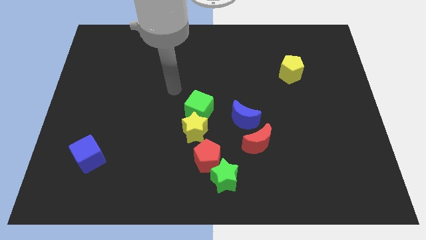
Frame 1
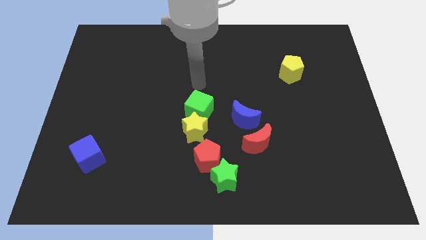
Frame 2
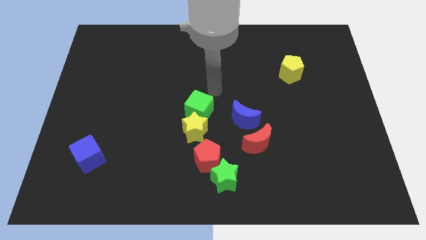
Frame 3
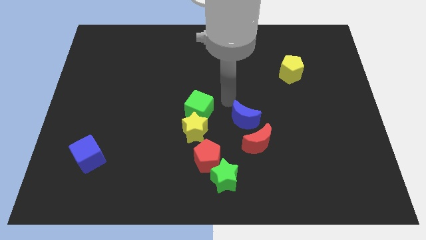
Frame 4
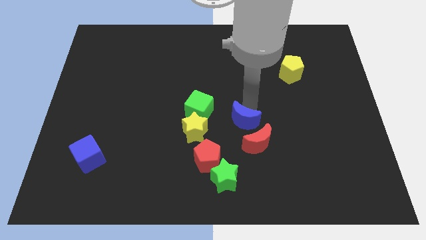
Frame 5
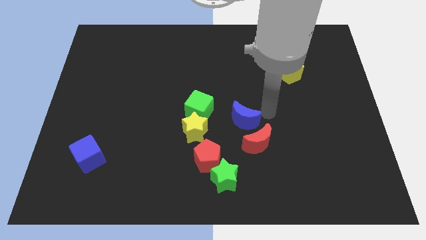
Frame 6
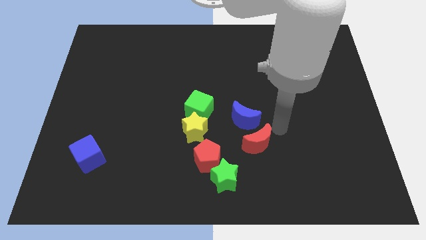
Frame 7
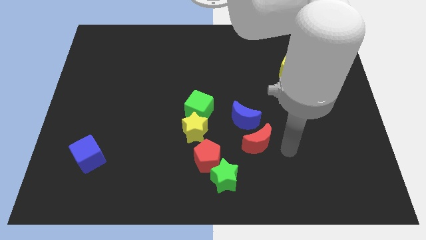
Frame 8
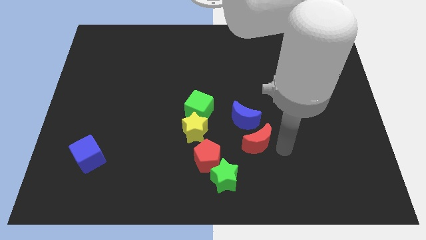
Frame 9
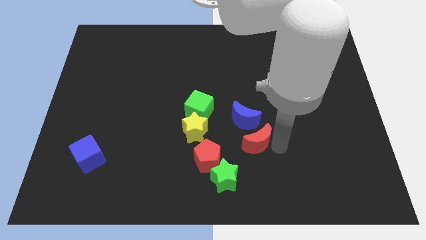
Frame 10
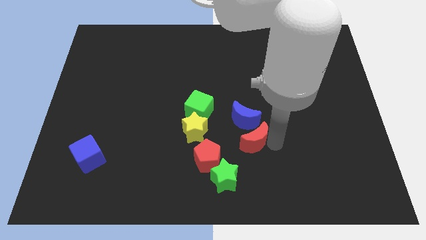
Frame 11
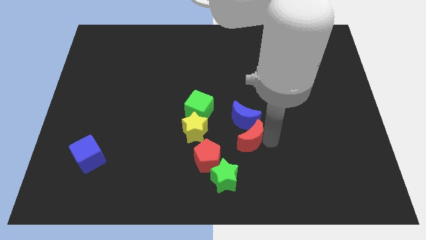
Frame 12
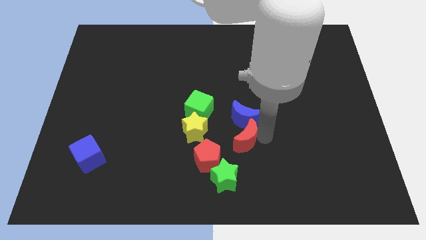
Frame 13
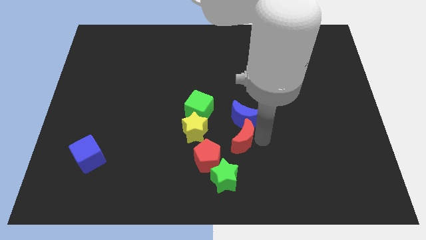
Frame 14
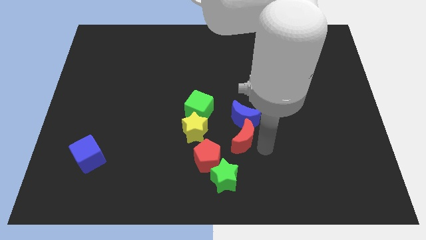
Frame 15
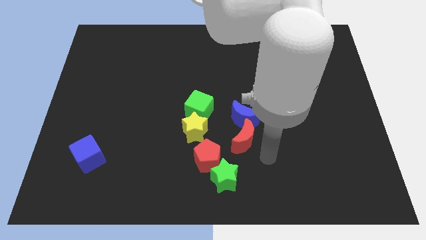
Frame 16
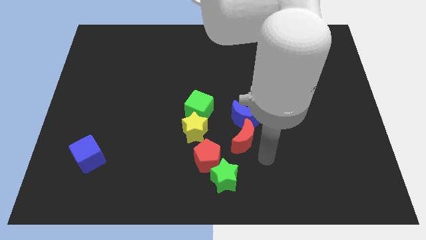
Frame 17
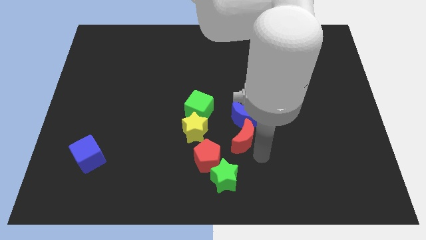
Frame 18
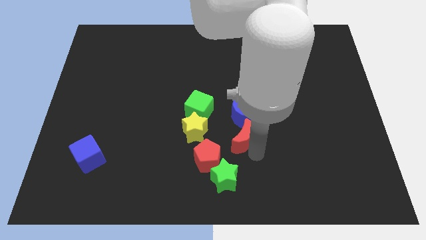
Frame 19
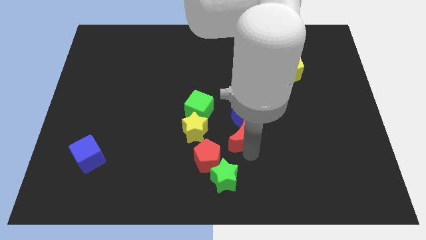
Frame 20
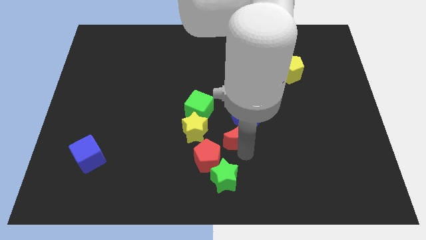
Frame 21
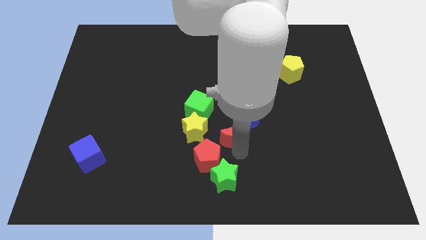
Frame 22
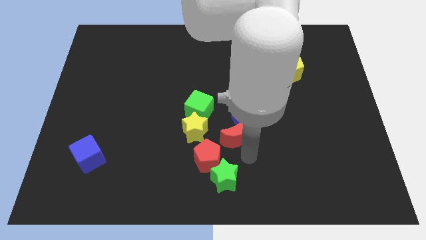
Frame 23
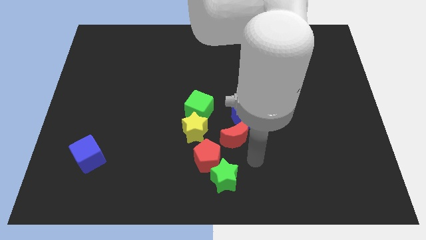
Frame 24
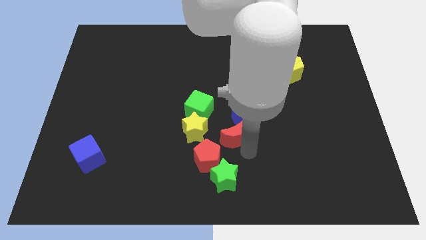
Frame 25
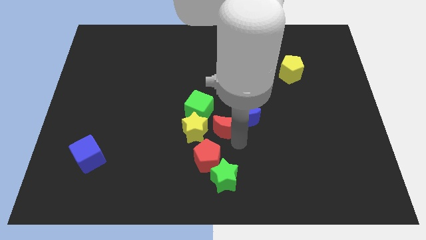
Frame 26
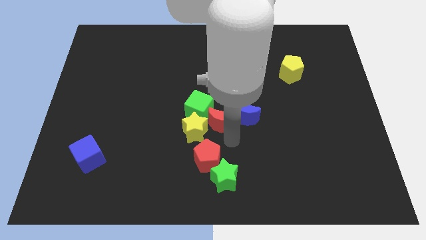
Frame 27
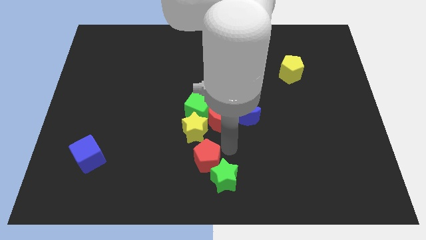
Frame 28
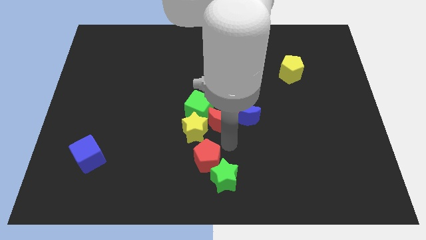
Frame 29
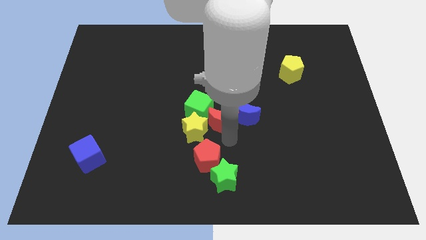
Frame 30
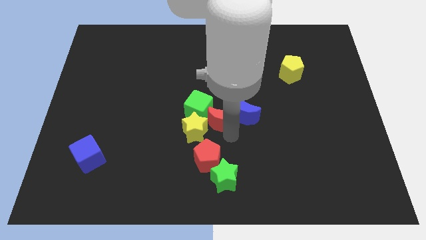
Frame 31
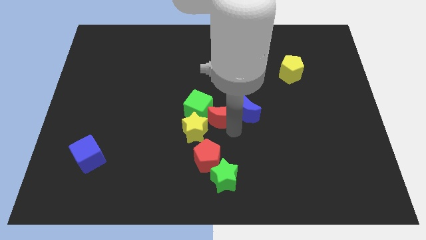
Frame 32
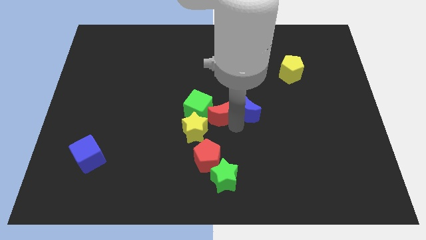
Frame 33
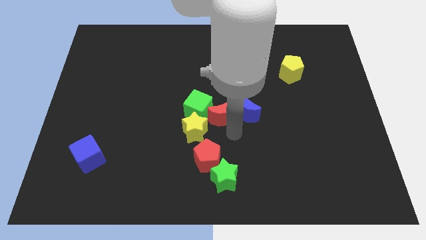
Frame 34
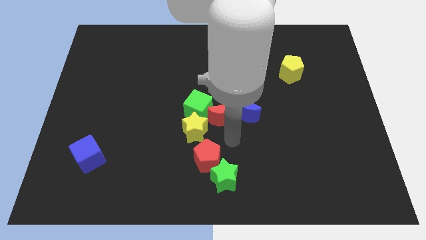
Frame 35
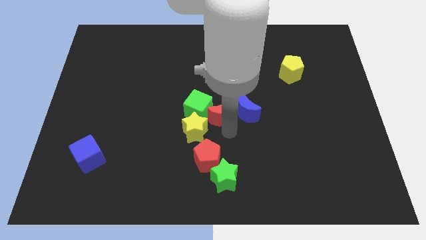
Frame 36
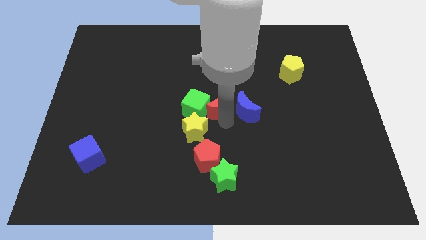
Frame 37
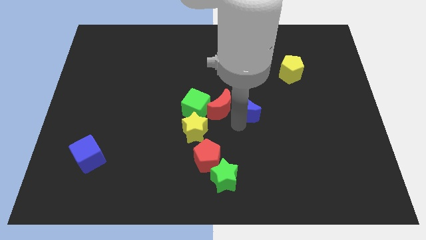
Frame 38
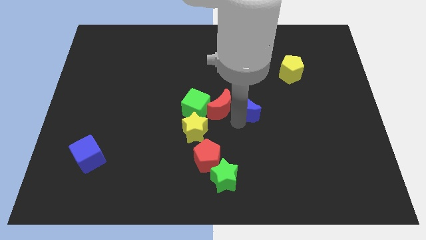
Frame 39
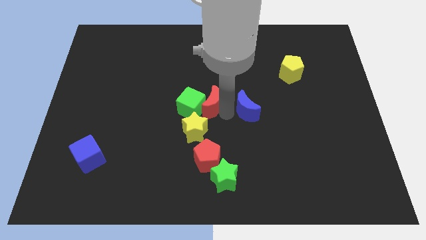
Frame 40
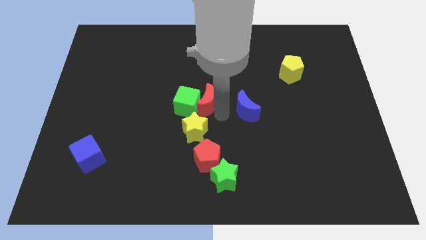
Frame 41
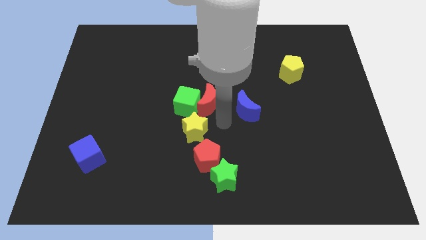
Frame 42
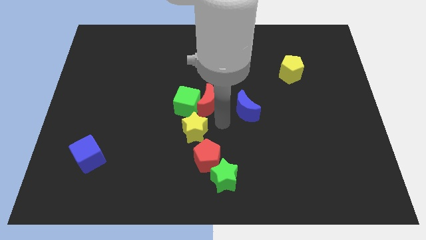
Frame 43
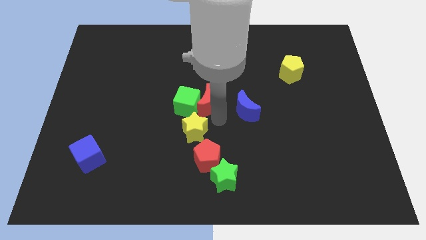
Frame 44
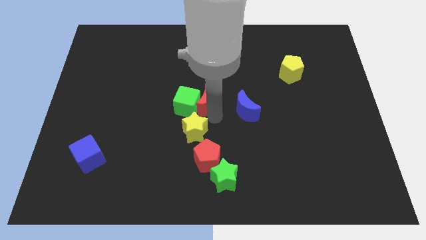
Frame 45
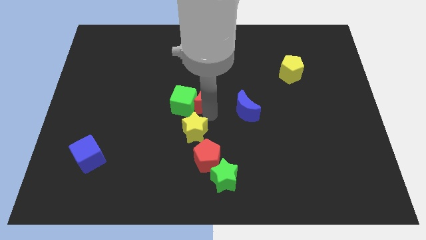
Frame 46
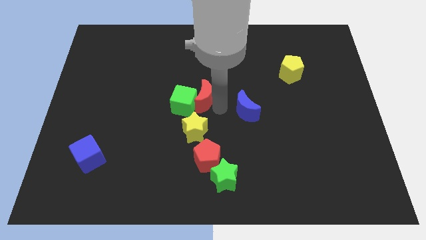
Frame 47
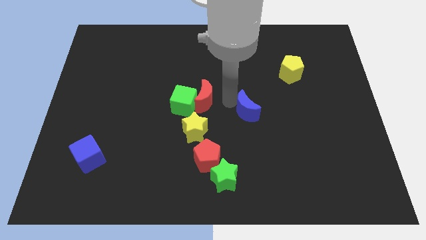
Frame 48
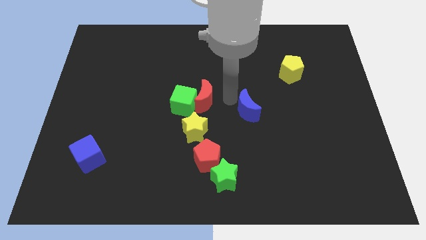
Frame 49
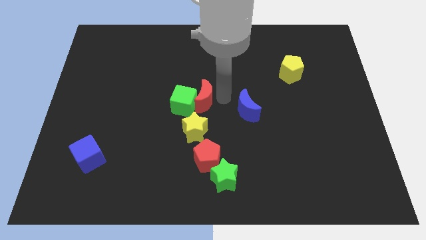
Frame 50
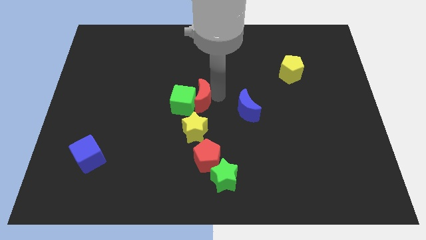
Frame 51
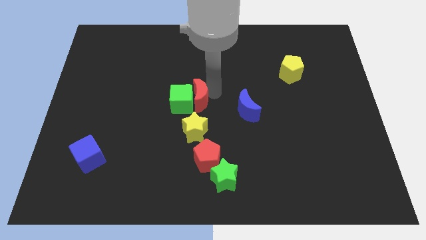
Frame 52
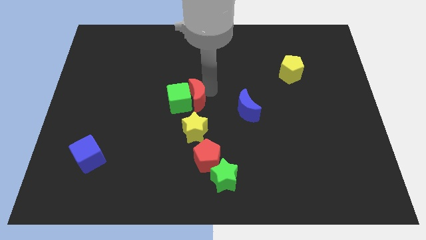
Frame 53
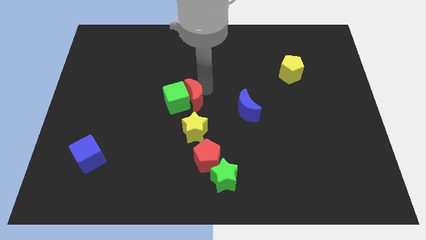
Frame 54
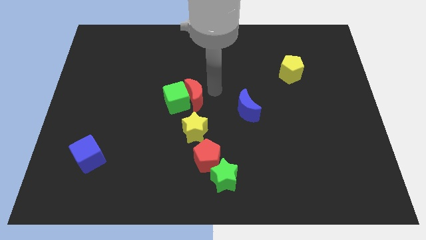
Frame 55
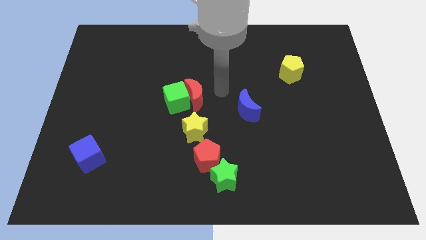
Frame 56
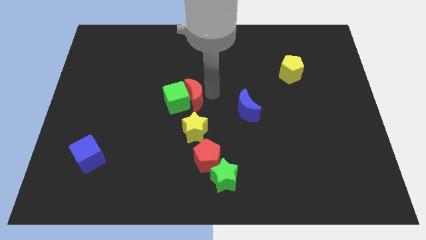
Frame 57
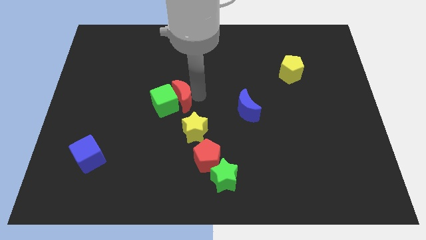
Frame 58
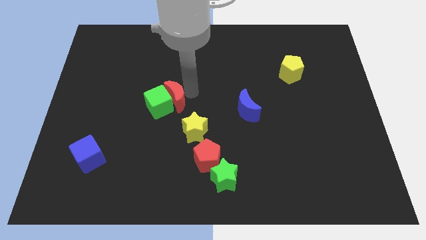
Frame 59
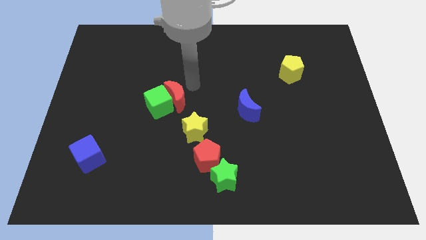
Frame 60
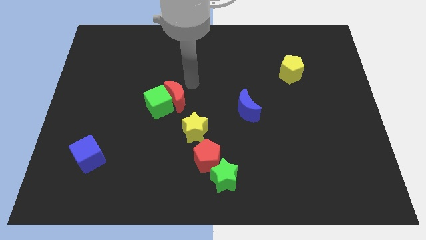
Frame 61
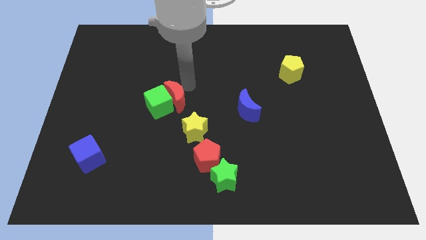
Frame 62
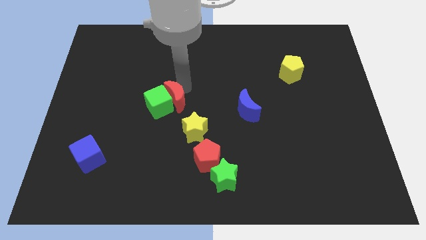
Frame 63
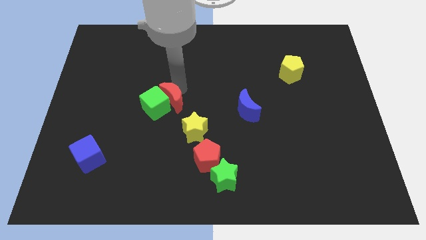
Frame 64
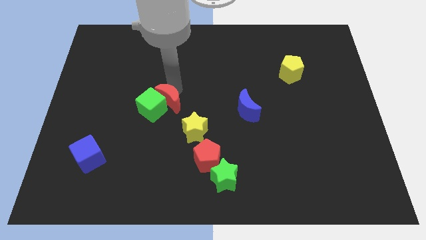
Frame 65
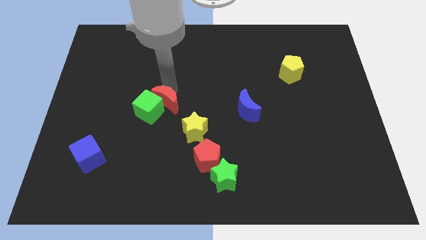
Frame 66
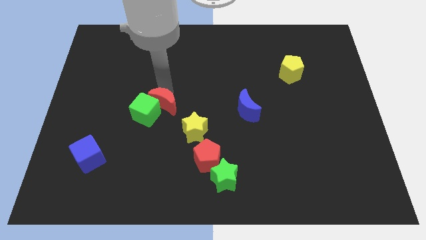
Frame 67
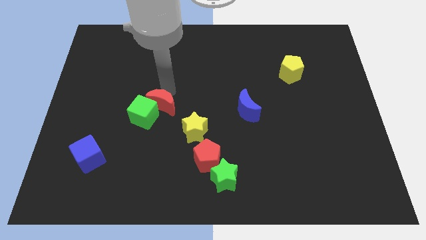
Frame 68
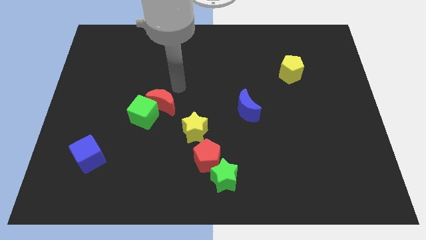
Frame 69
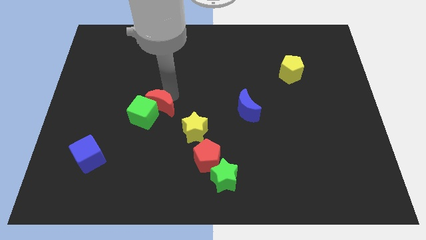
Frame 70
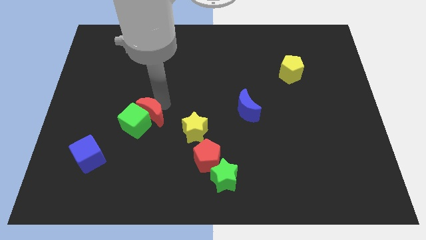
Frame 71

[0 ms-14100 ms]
slide the red moon to the left

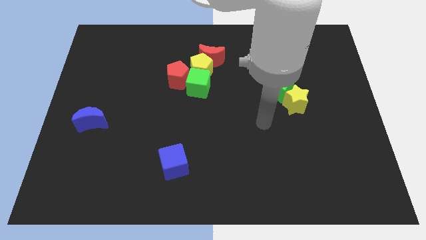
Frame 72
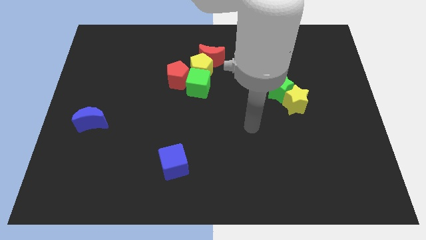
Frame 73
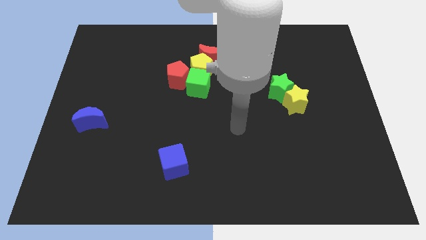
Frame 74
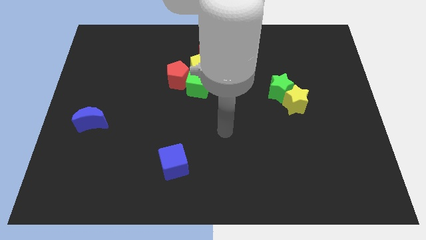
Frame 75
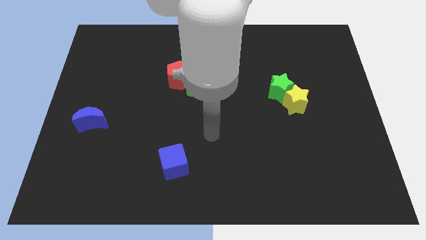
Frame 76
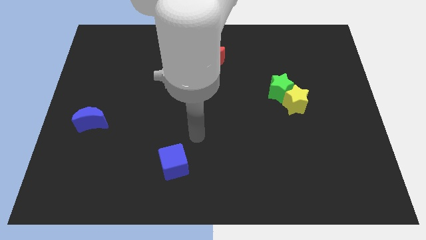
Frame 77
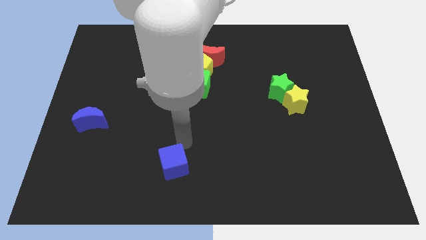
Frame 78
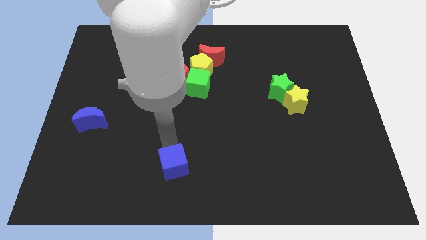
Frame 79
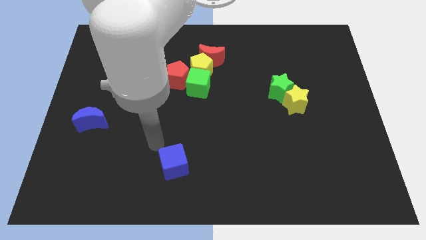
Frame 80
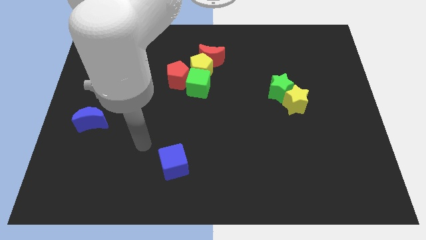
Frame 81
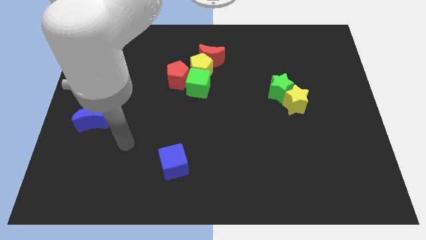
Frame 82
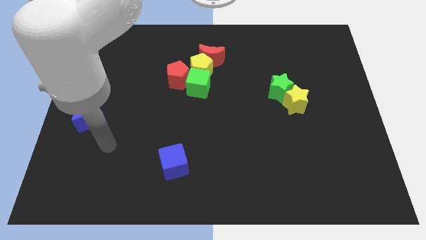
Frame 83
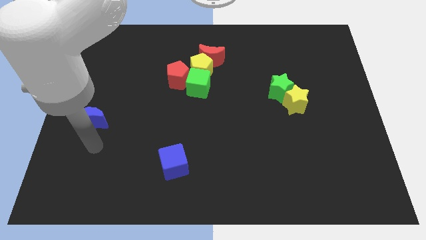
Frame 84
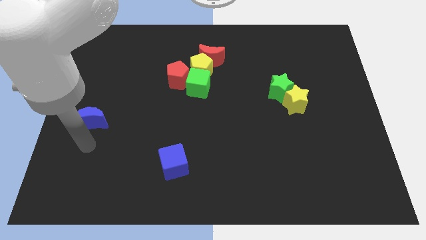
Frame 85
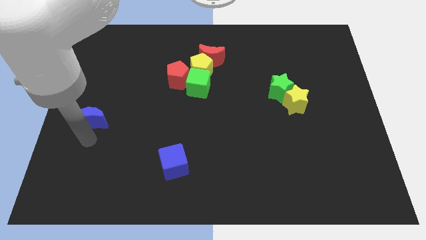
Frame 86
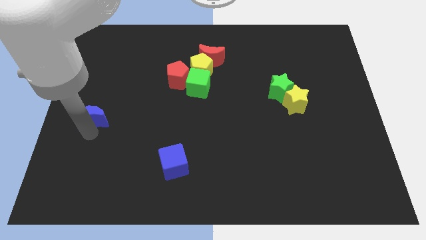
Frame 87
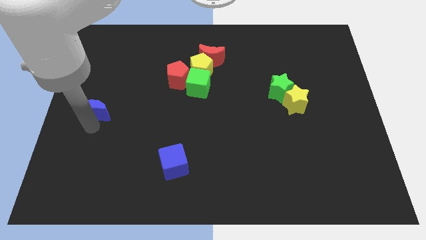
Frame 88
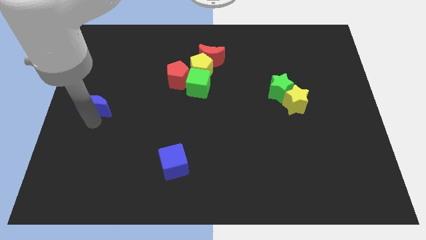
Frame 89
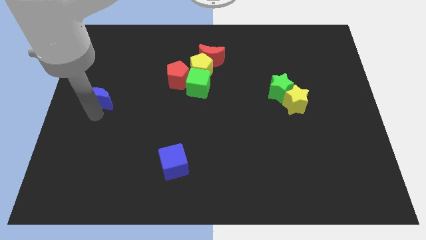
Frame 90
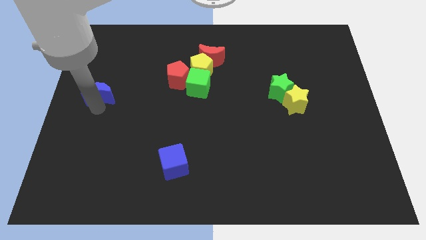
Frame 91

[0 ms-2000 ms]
slide the blue moon a little bit upwards
